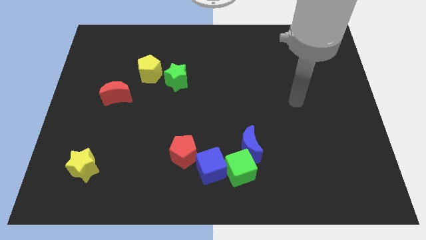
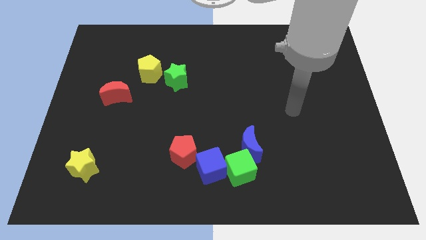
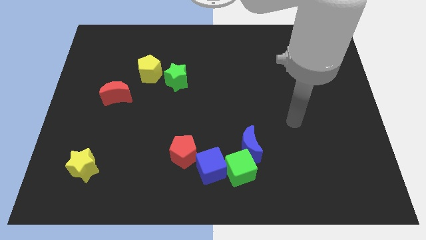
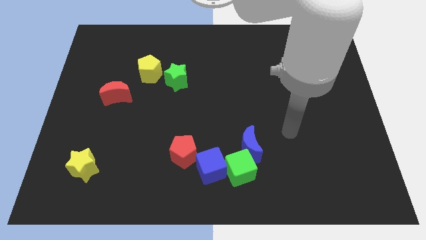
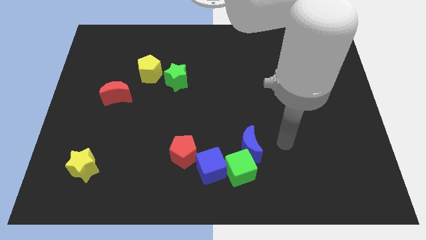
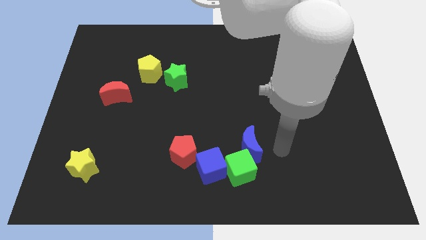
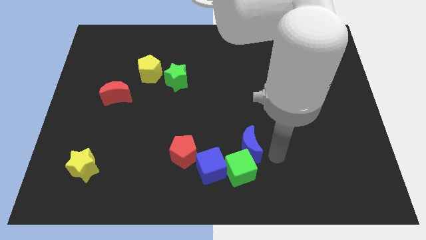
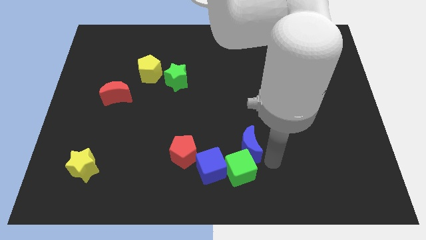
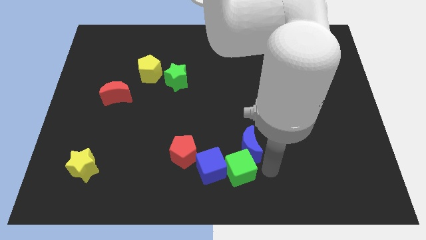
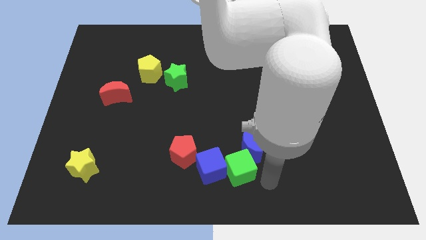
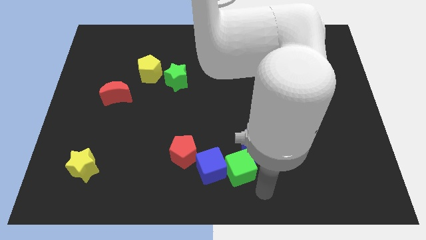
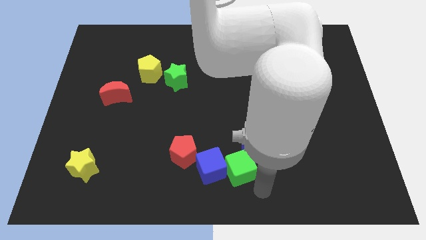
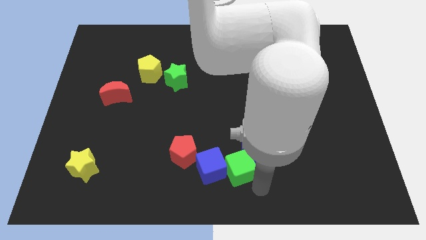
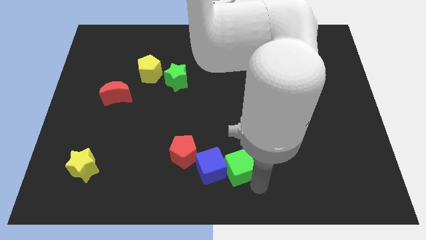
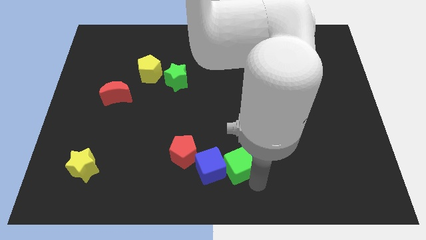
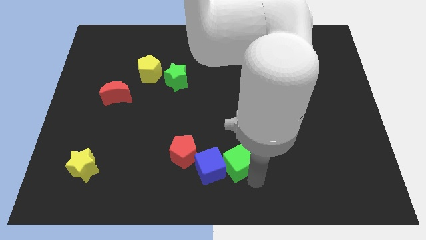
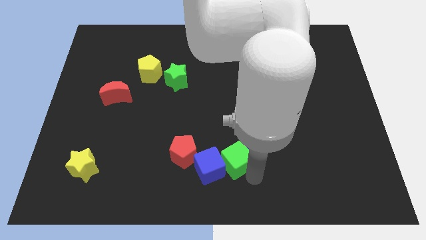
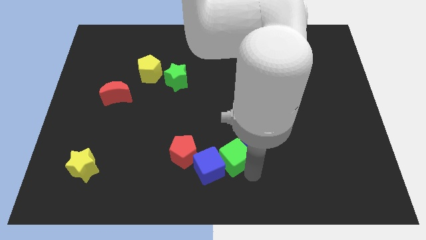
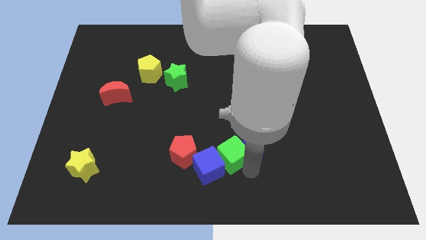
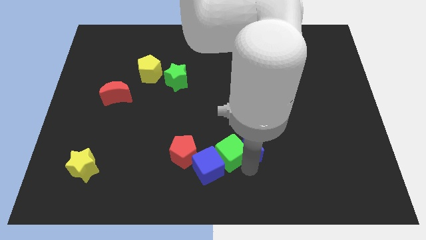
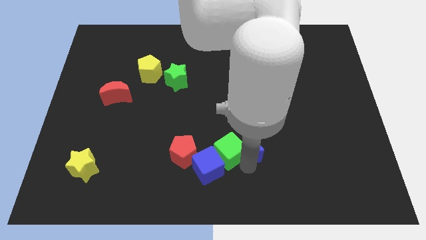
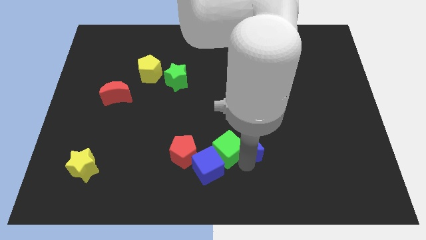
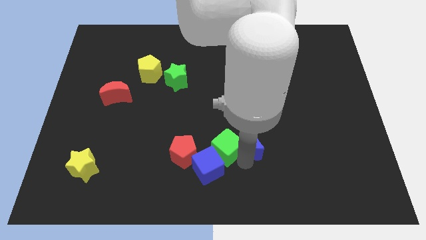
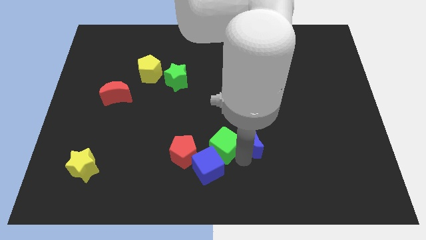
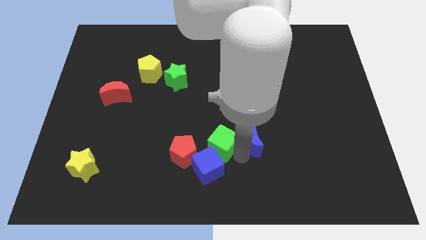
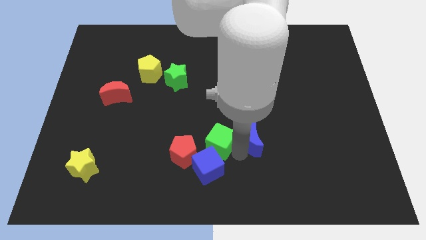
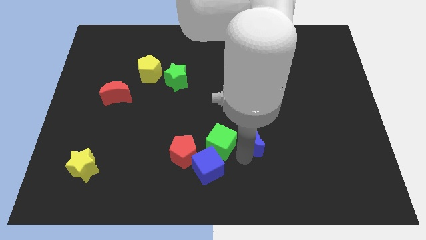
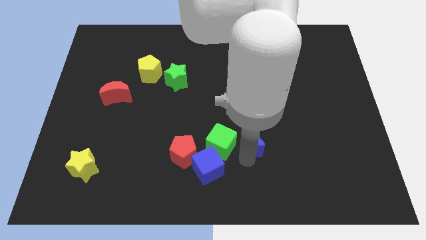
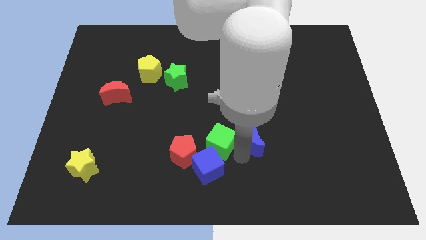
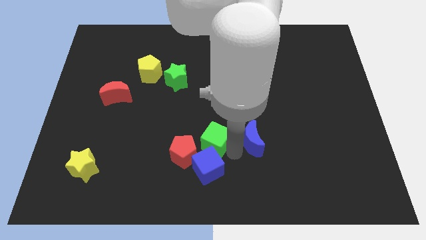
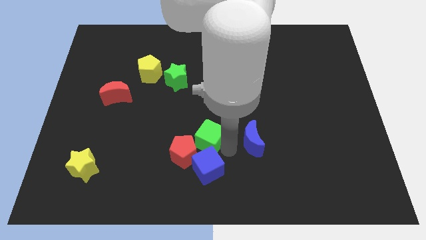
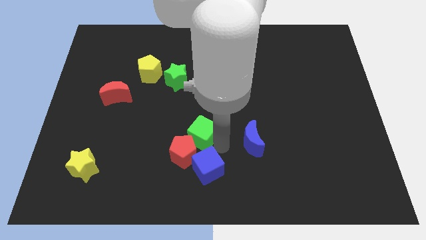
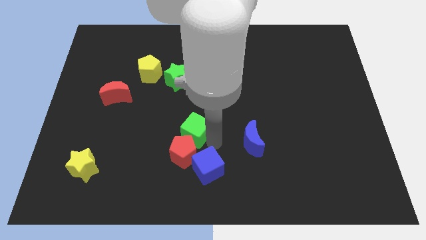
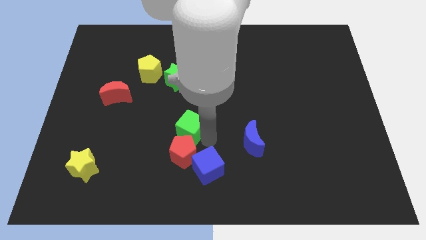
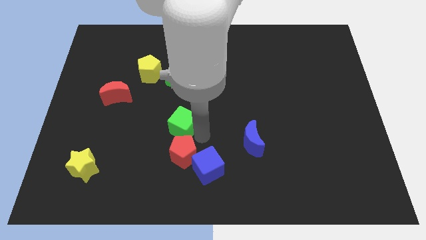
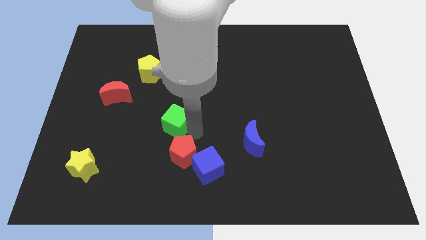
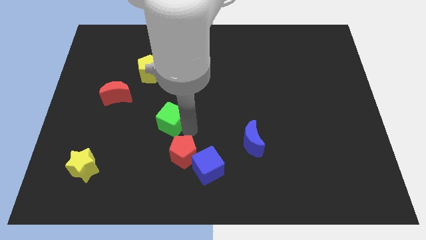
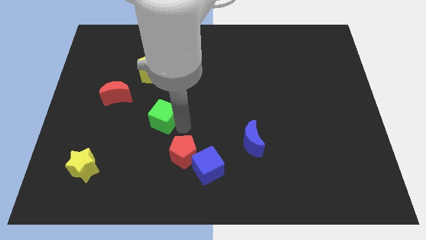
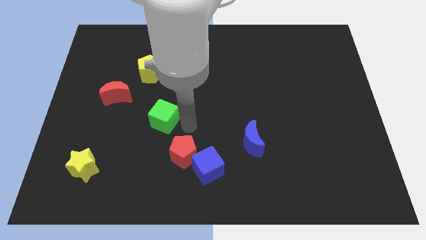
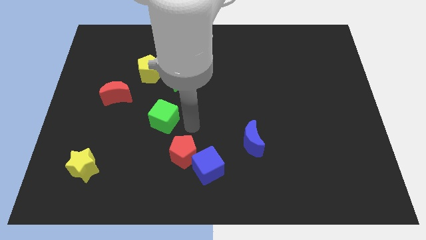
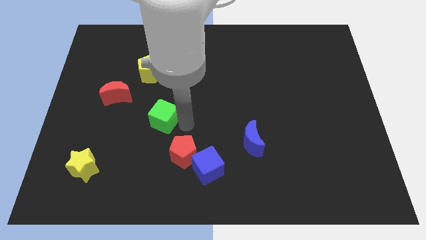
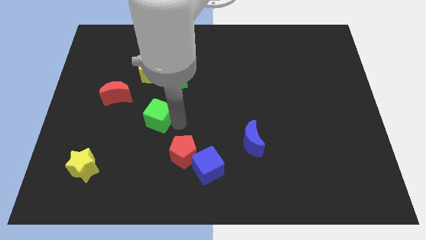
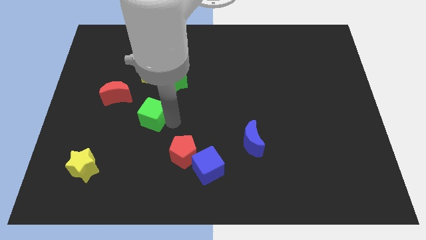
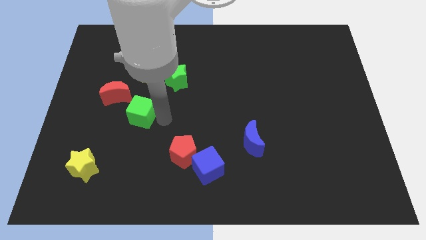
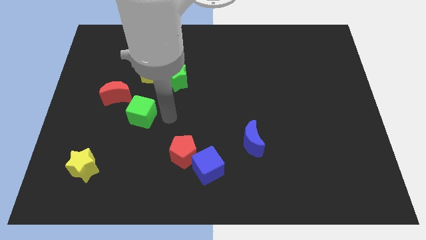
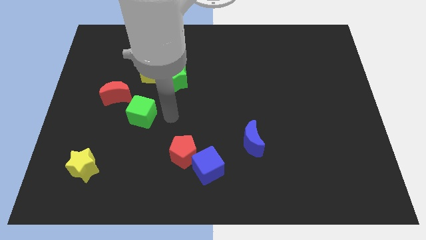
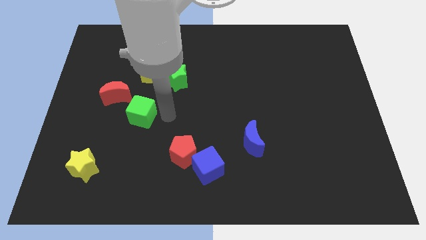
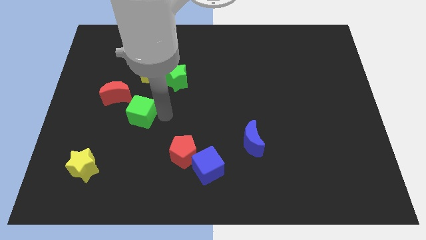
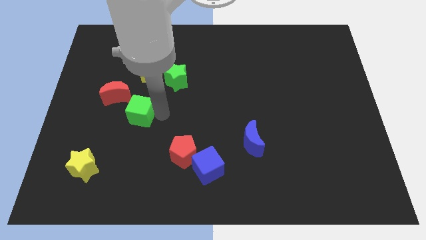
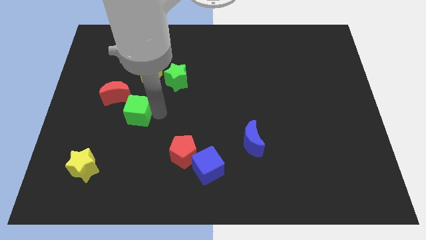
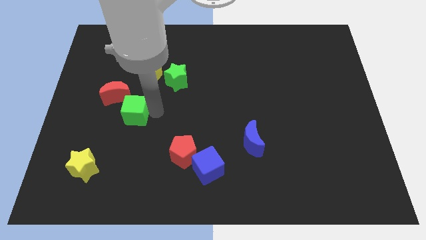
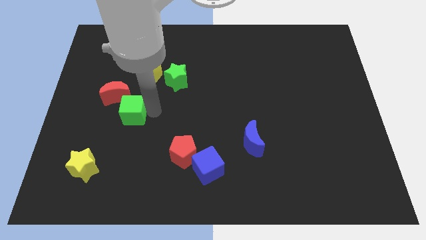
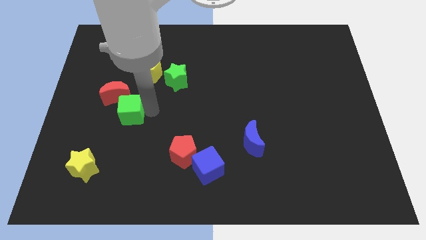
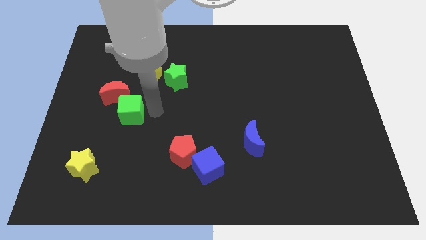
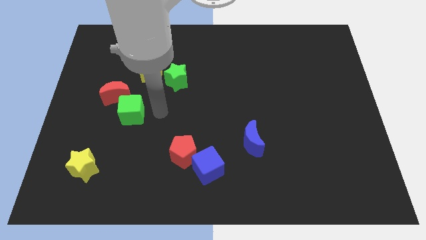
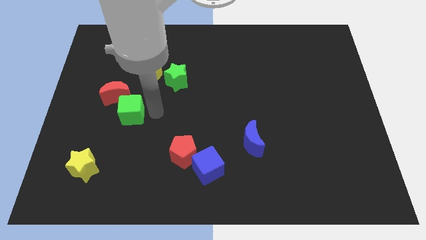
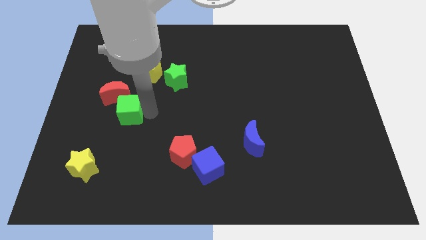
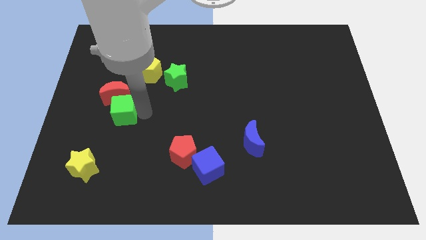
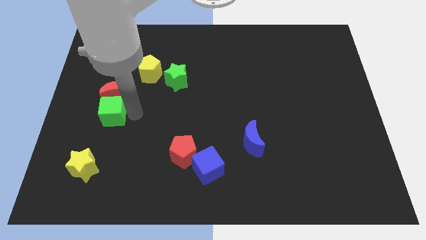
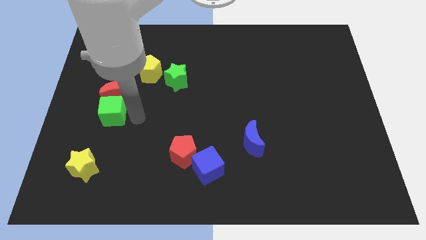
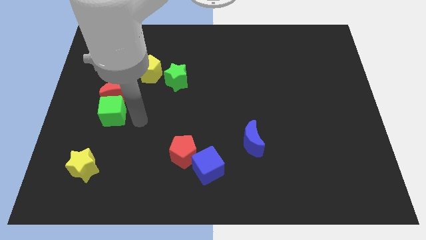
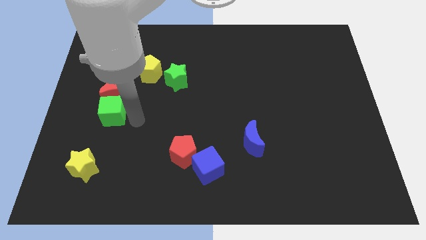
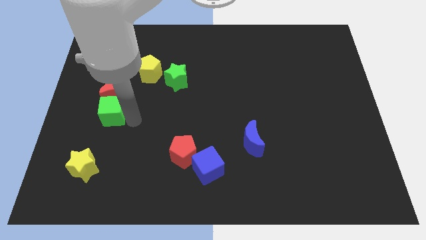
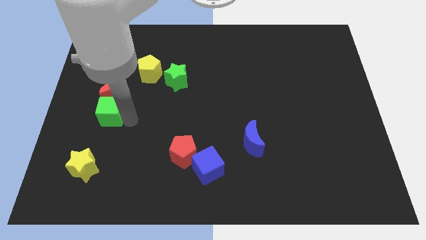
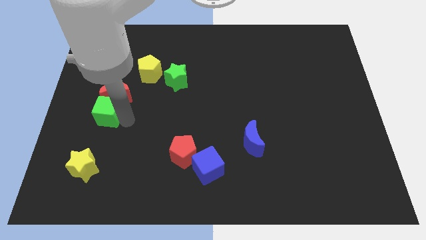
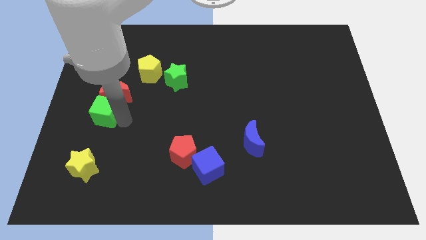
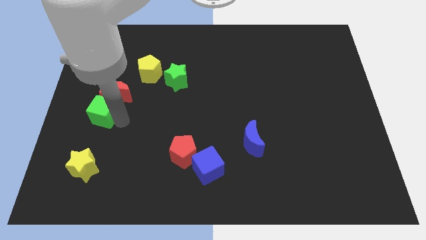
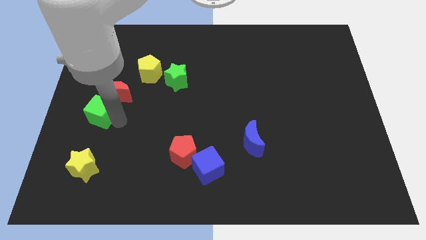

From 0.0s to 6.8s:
move the green cube to the left side of the board
